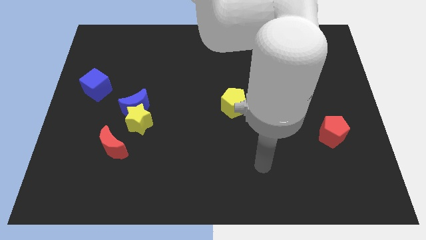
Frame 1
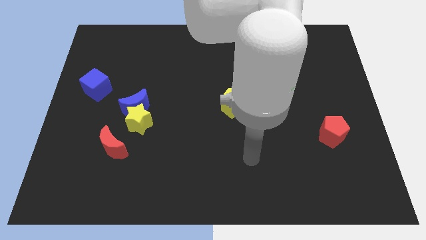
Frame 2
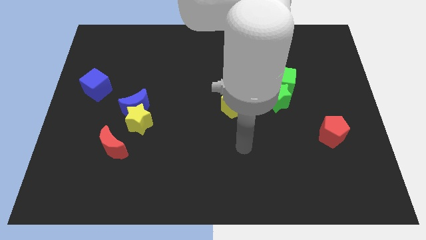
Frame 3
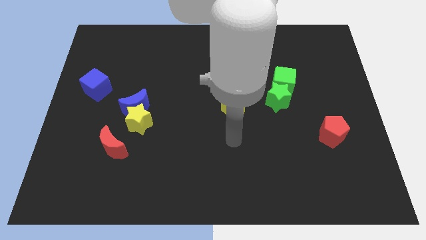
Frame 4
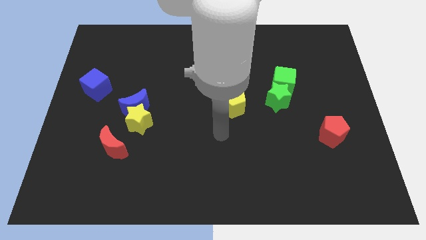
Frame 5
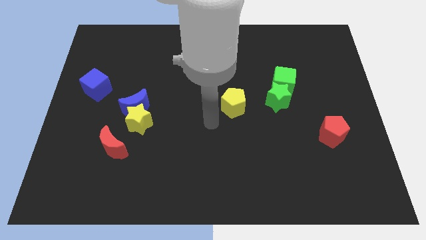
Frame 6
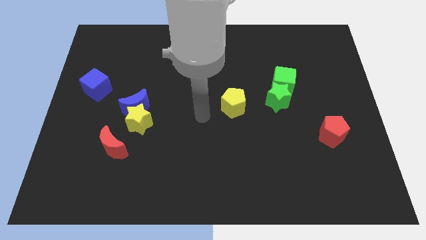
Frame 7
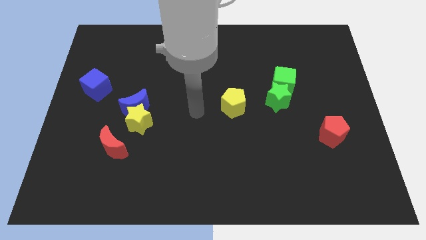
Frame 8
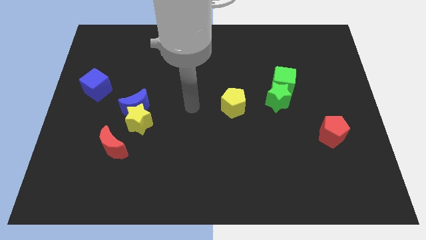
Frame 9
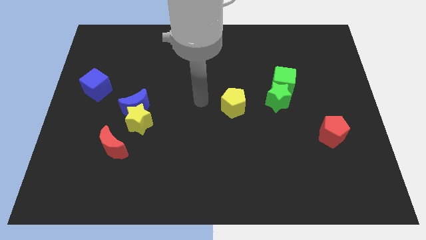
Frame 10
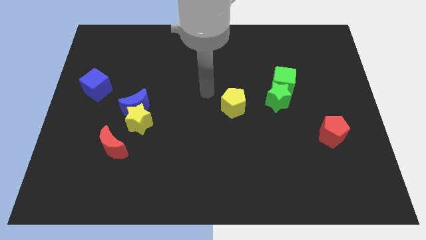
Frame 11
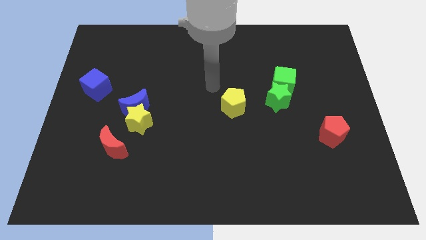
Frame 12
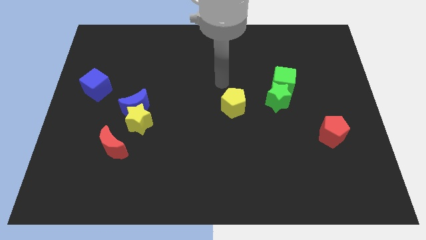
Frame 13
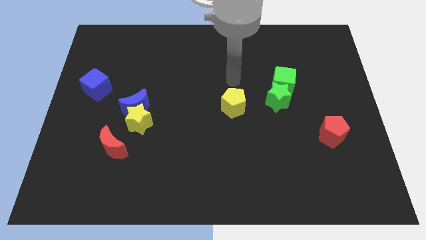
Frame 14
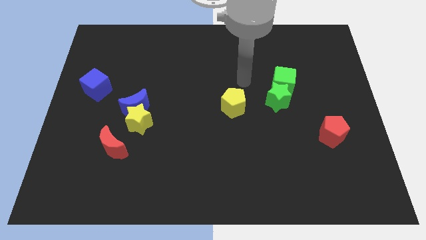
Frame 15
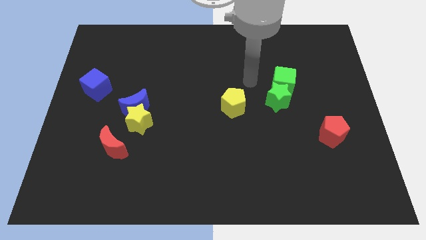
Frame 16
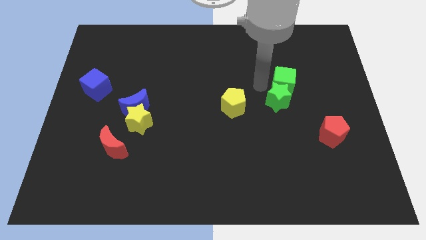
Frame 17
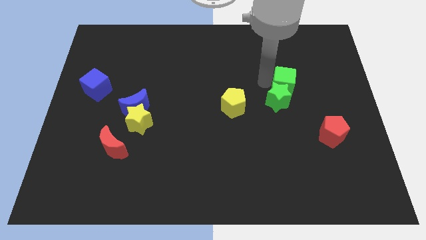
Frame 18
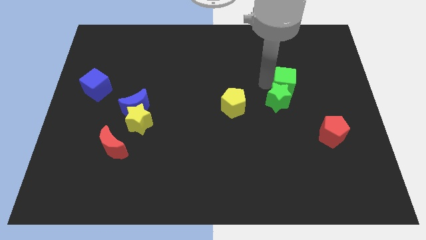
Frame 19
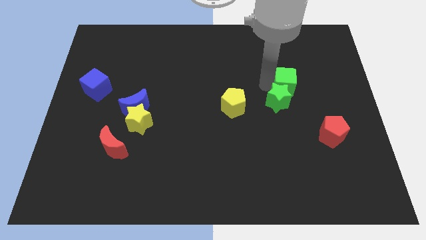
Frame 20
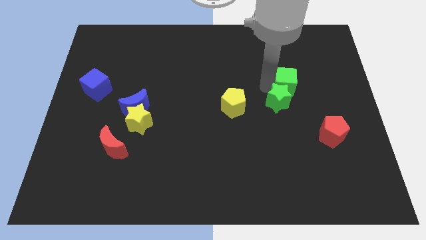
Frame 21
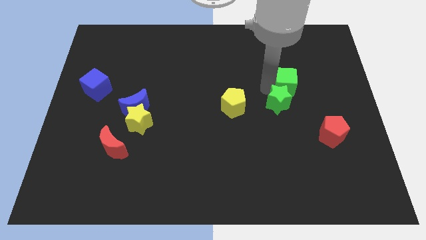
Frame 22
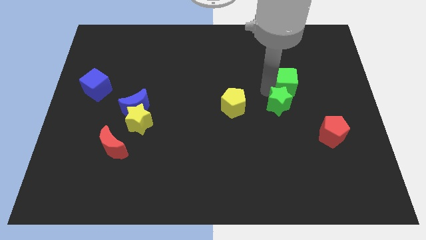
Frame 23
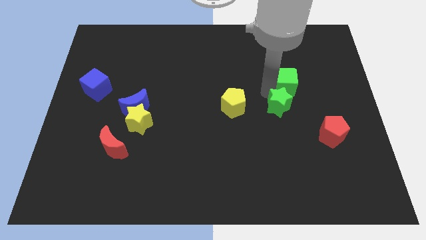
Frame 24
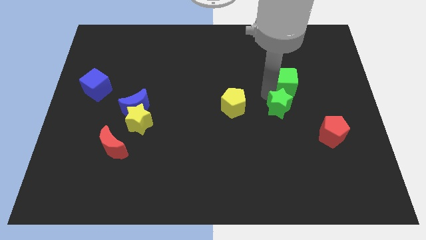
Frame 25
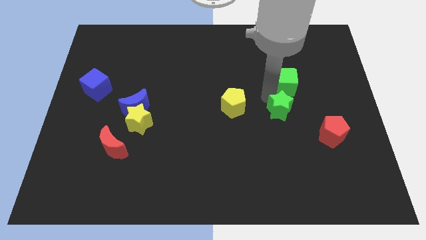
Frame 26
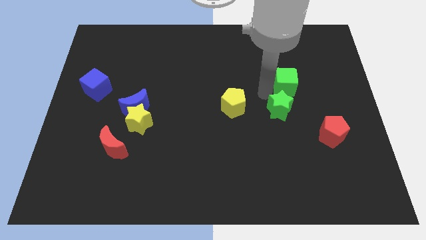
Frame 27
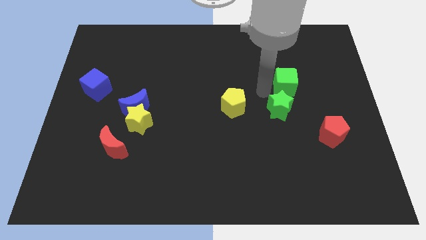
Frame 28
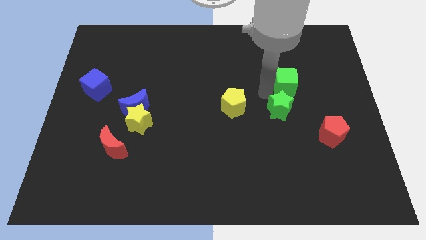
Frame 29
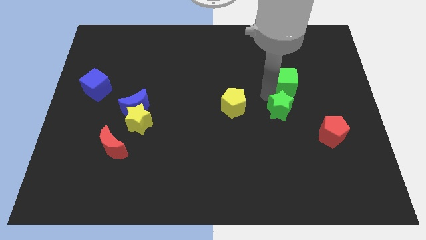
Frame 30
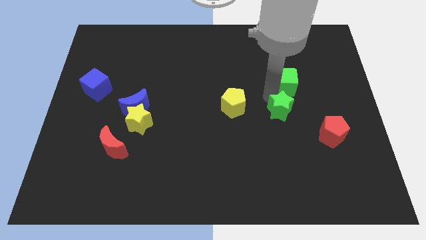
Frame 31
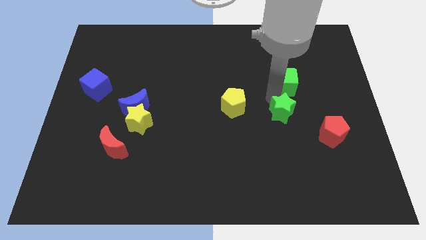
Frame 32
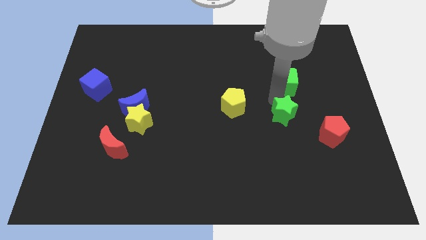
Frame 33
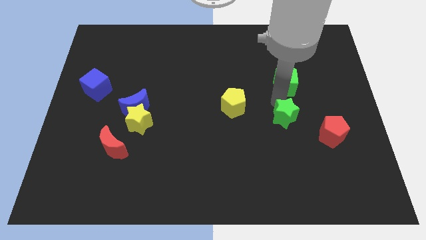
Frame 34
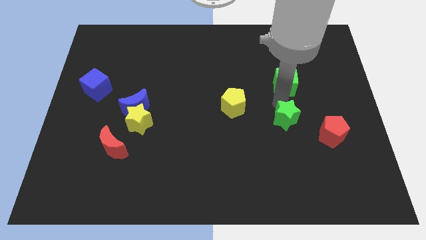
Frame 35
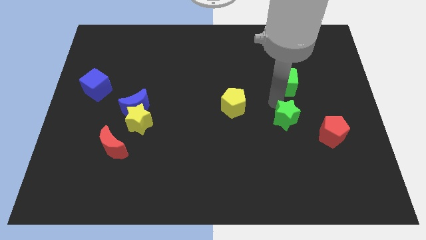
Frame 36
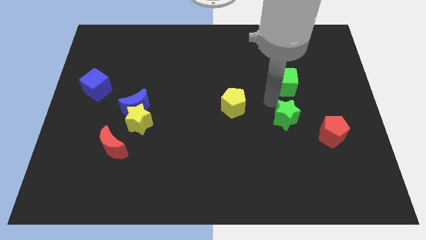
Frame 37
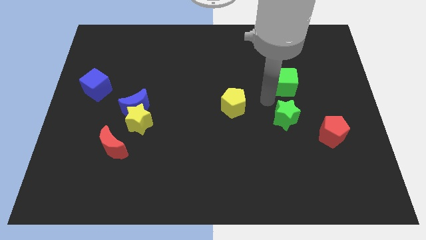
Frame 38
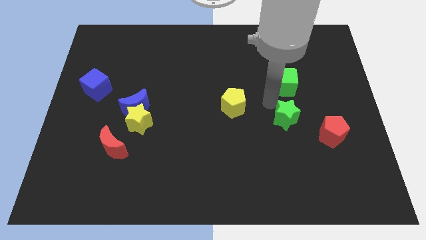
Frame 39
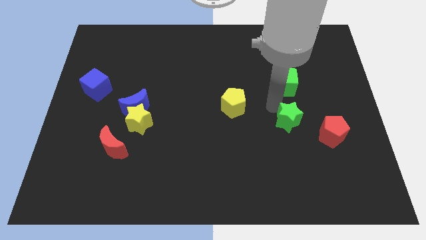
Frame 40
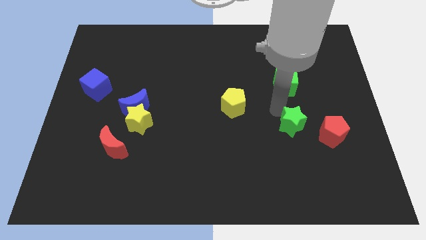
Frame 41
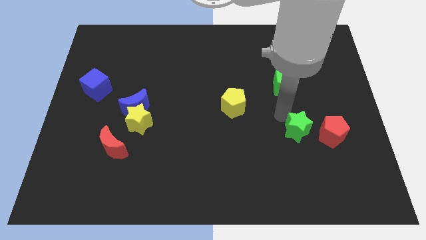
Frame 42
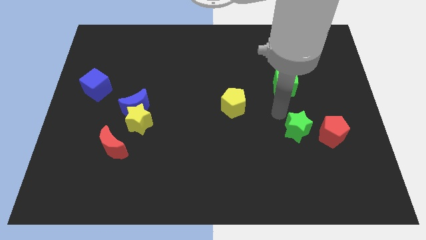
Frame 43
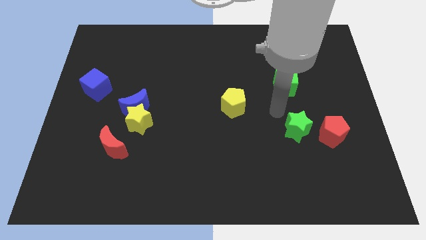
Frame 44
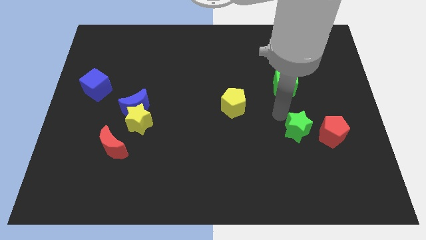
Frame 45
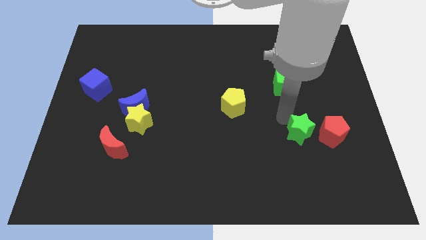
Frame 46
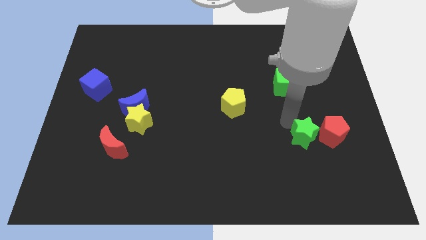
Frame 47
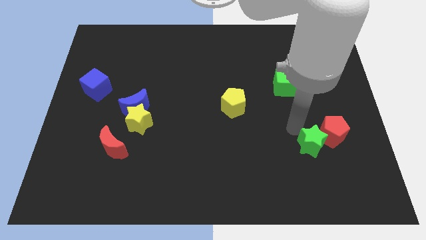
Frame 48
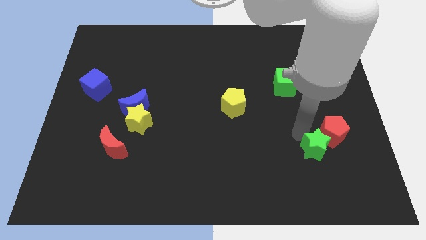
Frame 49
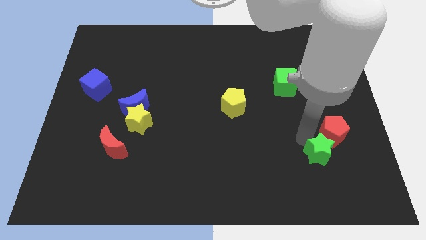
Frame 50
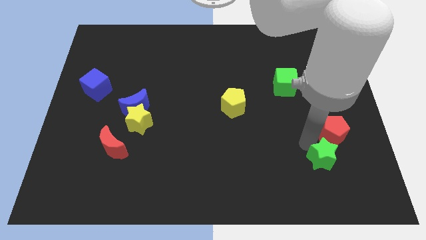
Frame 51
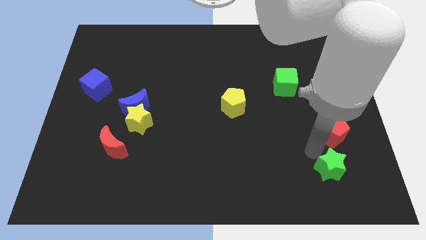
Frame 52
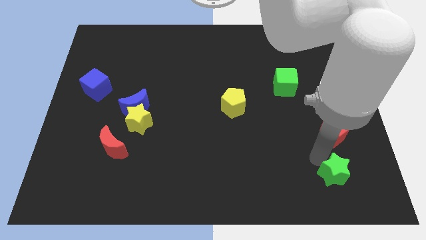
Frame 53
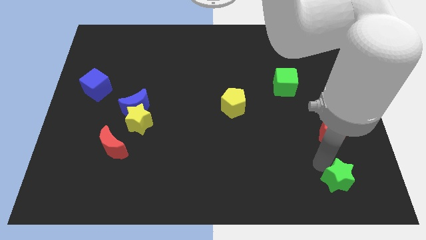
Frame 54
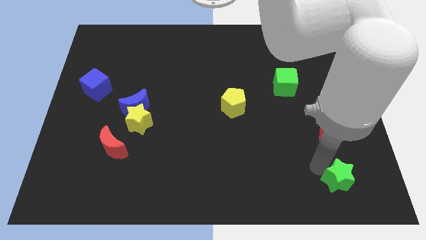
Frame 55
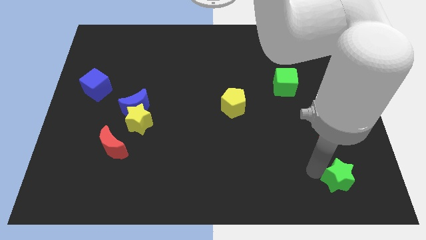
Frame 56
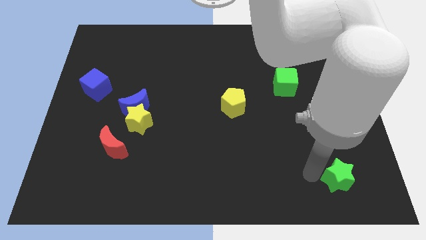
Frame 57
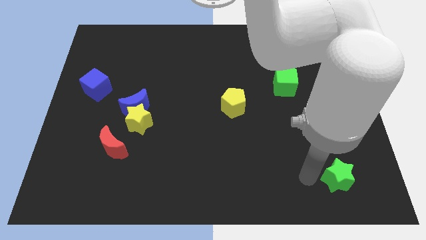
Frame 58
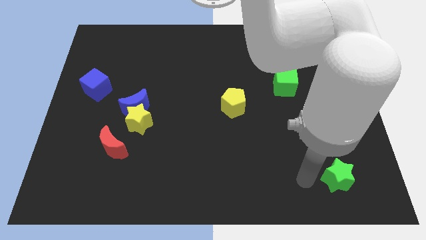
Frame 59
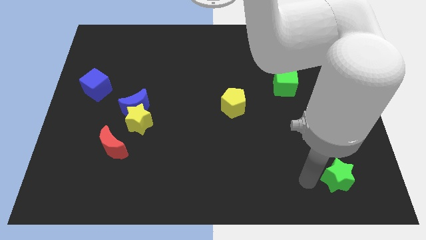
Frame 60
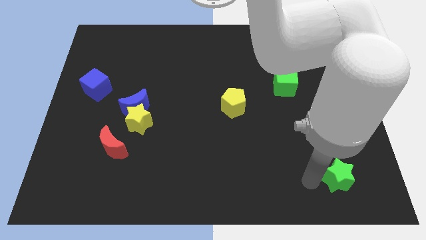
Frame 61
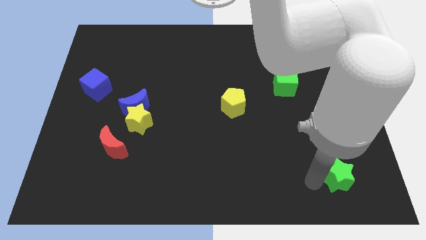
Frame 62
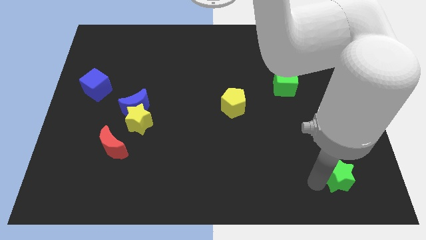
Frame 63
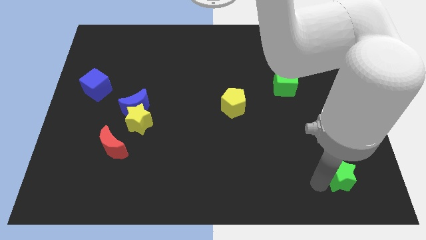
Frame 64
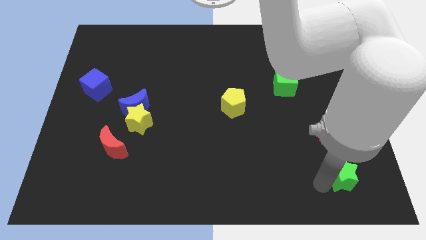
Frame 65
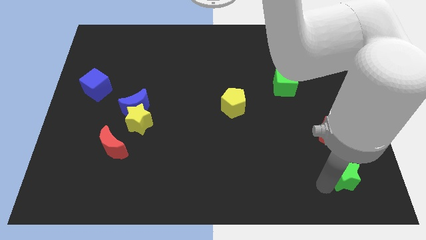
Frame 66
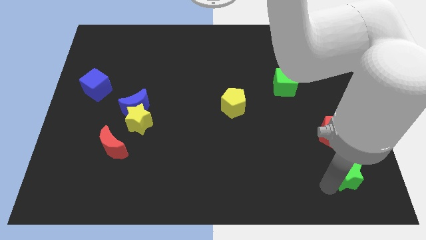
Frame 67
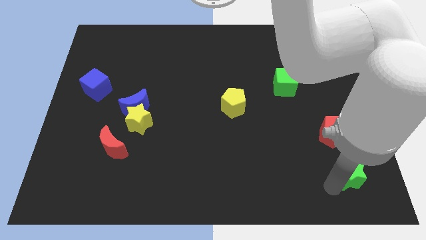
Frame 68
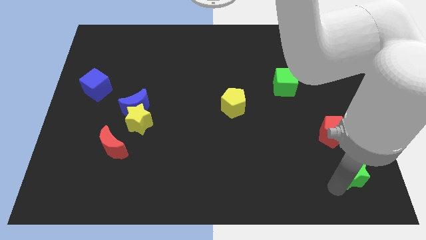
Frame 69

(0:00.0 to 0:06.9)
put the green star to the bottom right corner

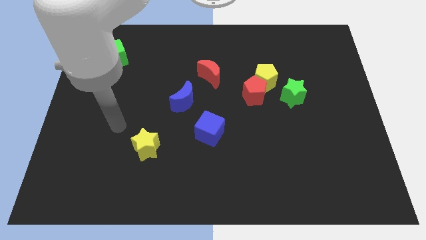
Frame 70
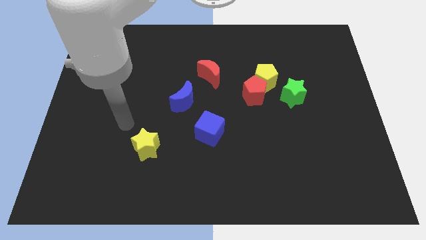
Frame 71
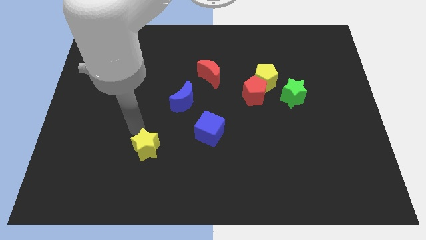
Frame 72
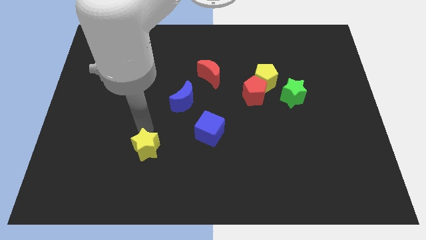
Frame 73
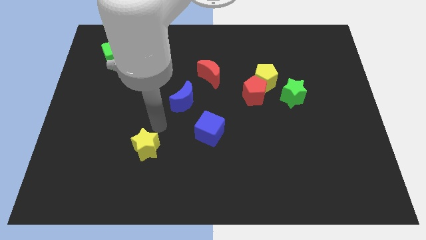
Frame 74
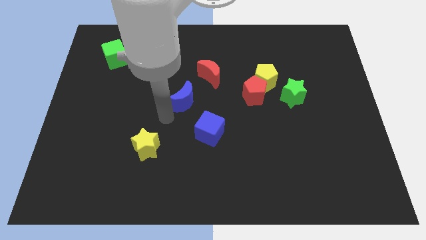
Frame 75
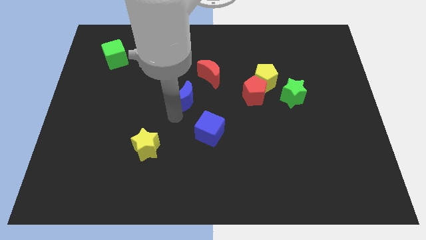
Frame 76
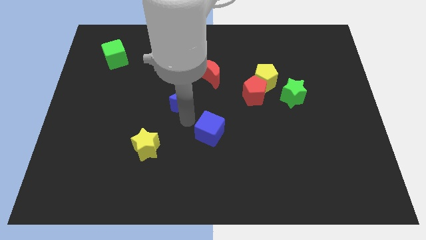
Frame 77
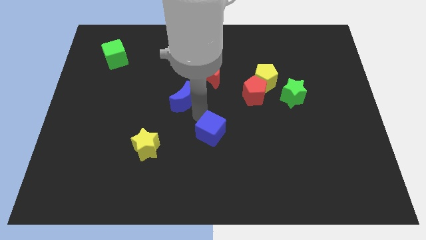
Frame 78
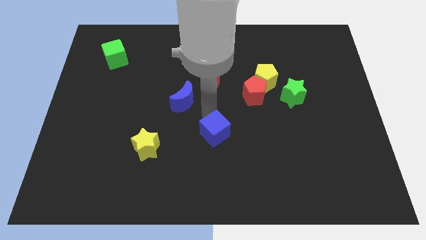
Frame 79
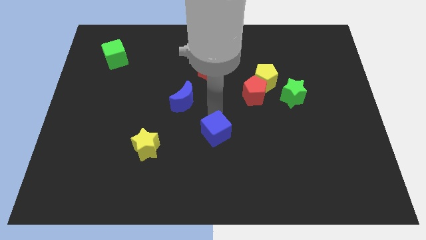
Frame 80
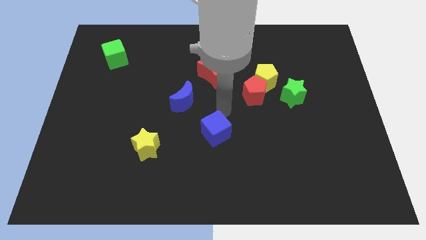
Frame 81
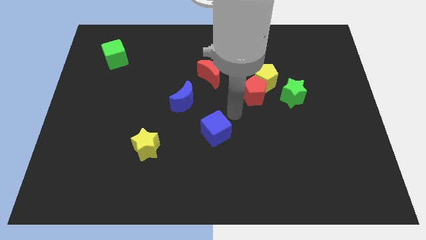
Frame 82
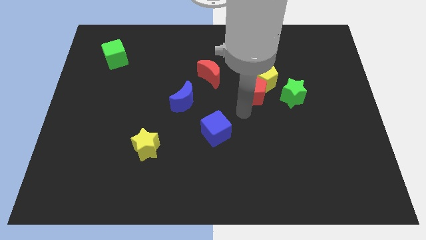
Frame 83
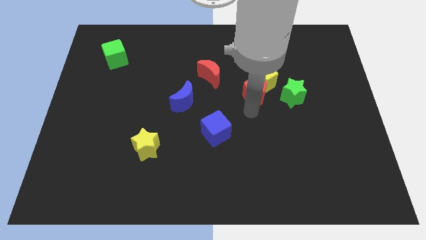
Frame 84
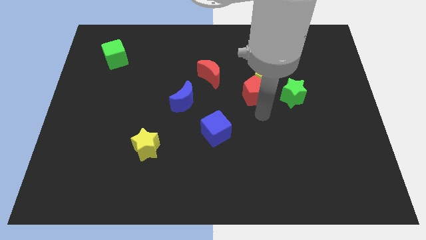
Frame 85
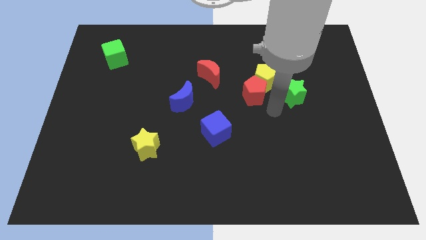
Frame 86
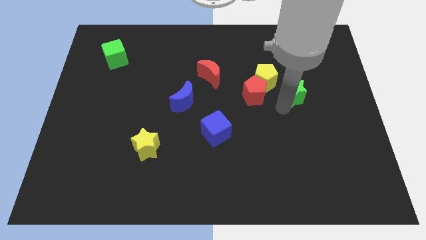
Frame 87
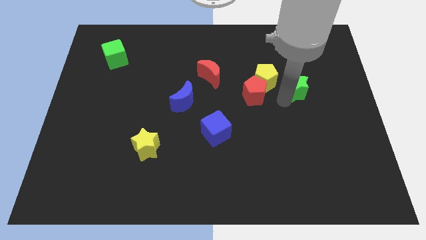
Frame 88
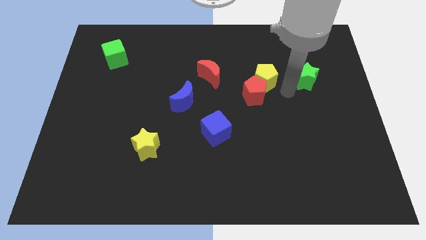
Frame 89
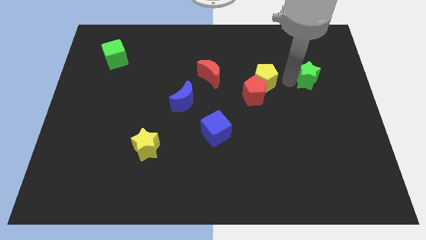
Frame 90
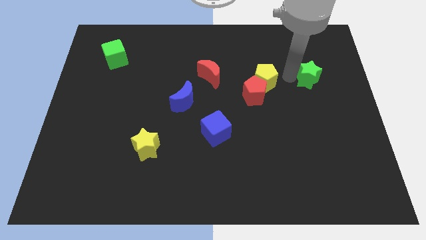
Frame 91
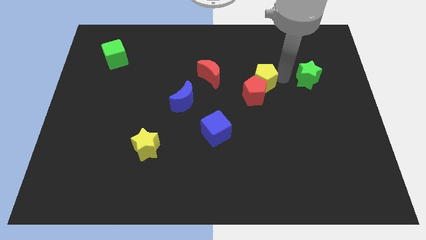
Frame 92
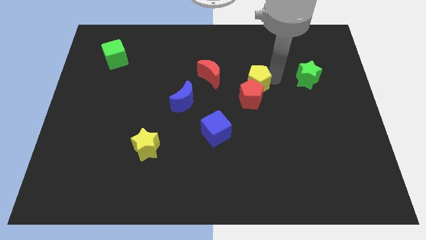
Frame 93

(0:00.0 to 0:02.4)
put the yellow pentagon to the middle of the board
